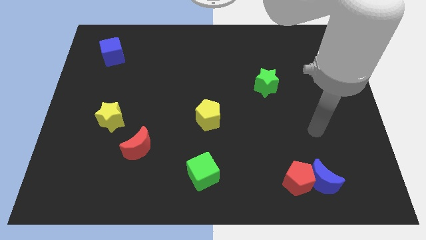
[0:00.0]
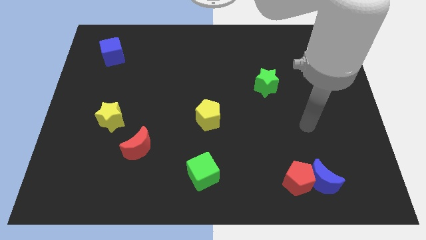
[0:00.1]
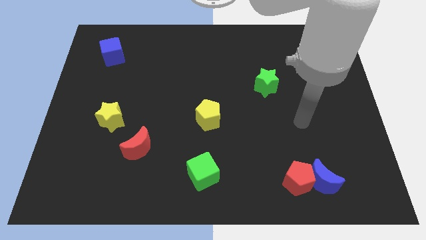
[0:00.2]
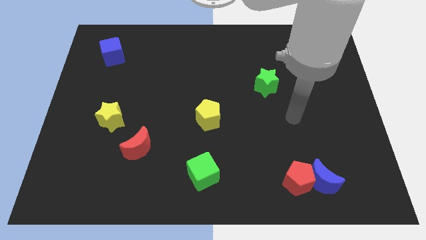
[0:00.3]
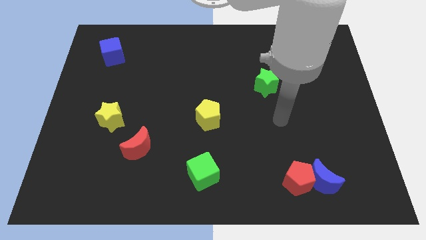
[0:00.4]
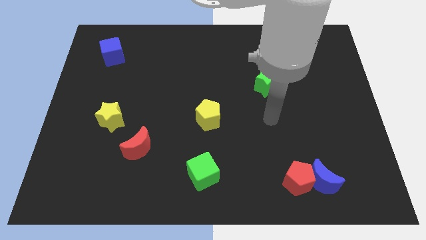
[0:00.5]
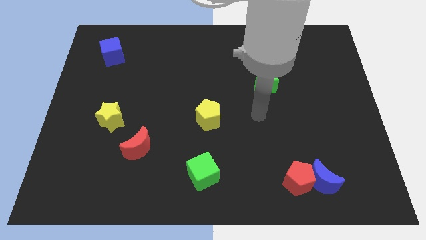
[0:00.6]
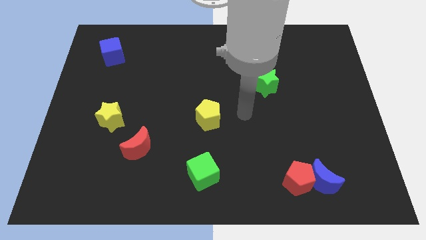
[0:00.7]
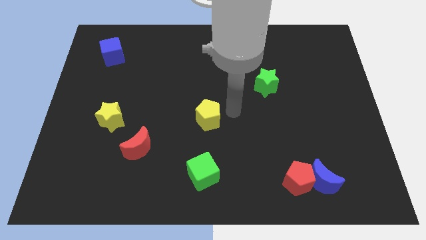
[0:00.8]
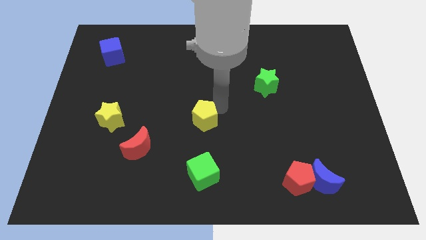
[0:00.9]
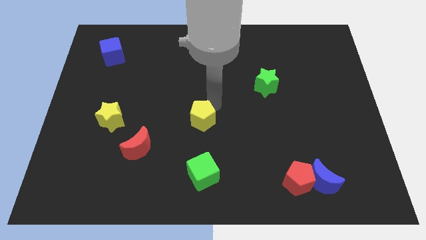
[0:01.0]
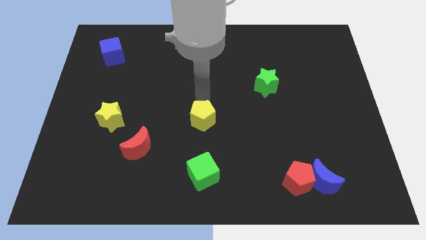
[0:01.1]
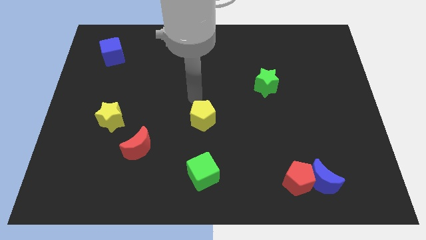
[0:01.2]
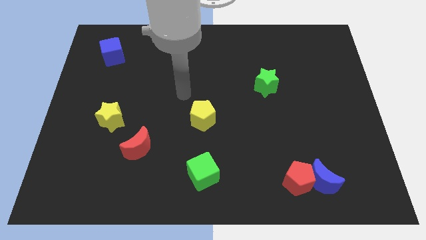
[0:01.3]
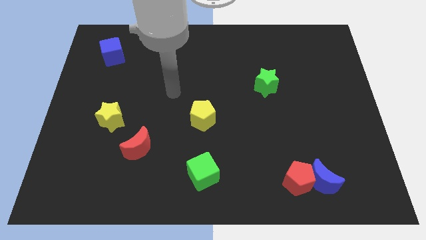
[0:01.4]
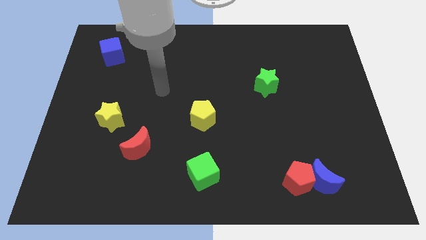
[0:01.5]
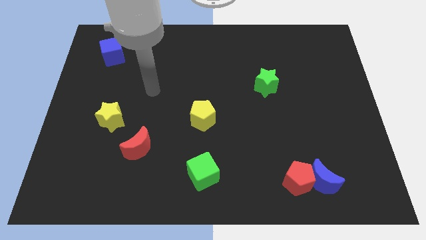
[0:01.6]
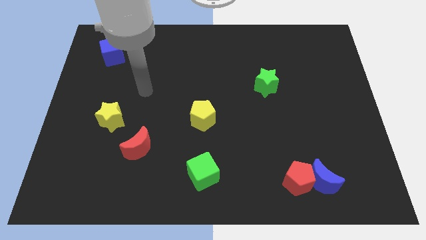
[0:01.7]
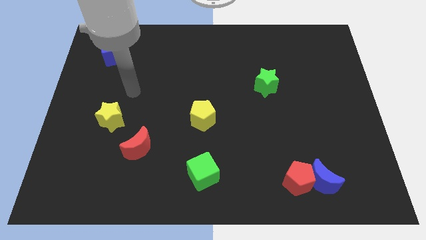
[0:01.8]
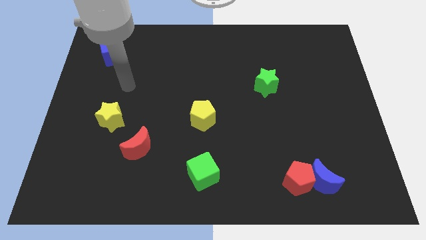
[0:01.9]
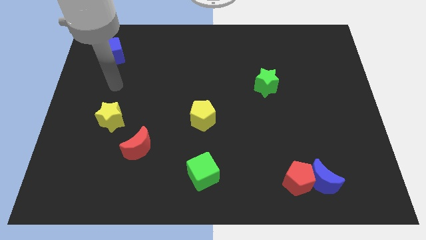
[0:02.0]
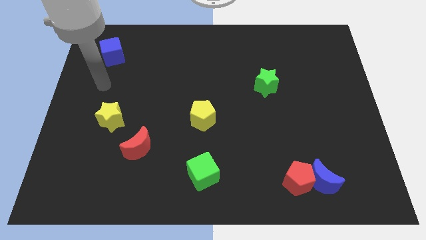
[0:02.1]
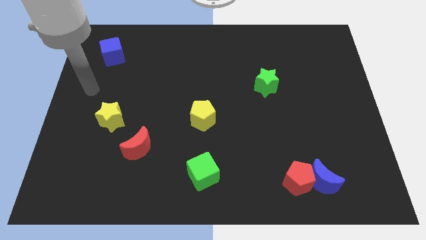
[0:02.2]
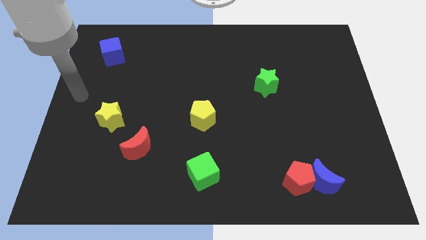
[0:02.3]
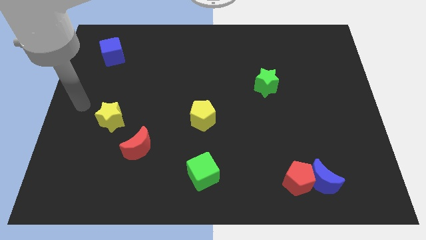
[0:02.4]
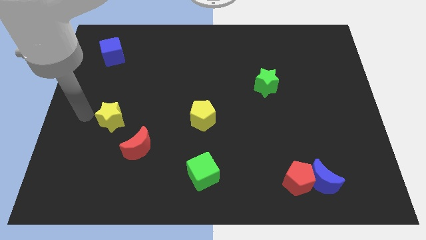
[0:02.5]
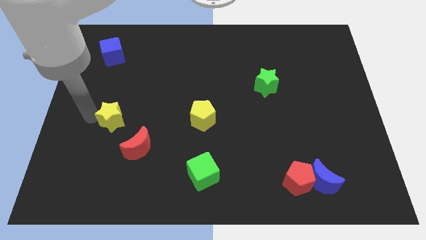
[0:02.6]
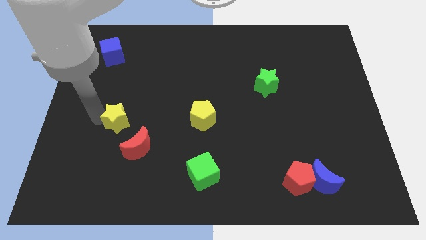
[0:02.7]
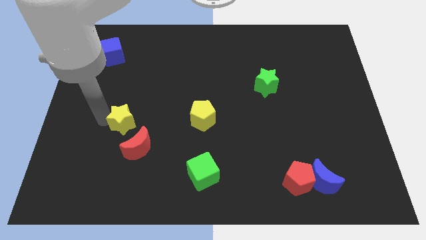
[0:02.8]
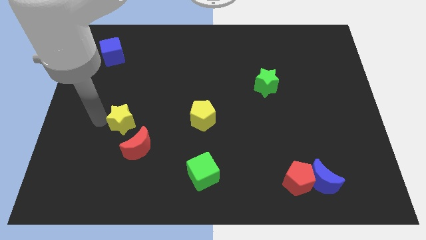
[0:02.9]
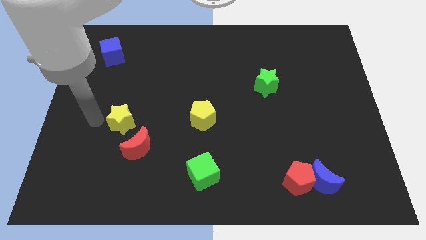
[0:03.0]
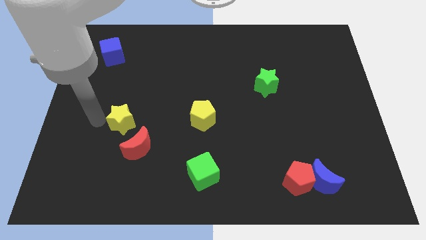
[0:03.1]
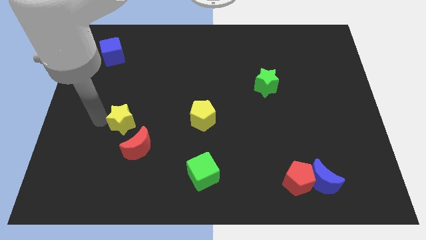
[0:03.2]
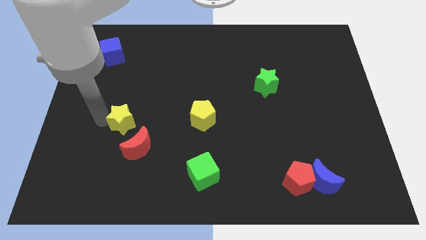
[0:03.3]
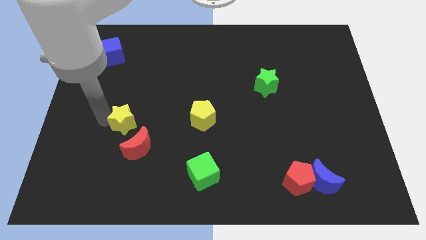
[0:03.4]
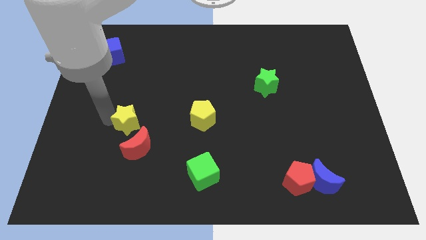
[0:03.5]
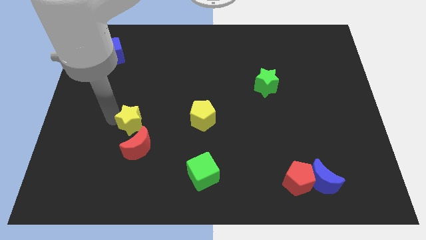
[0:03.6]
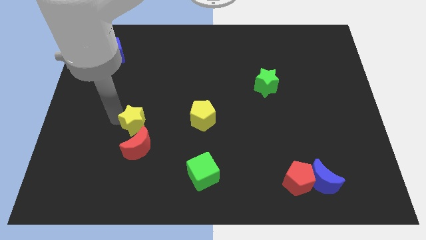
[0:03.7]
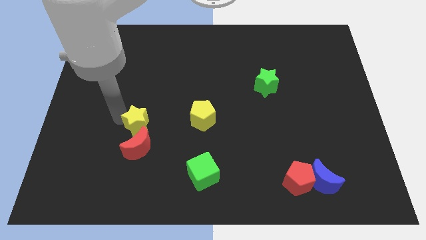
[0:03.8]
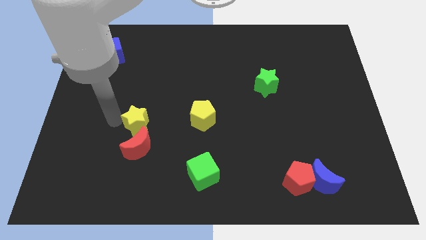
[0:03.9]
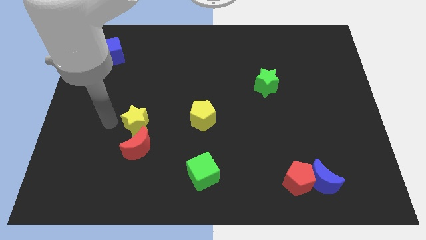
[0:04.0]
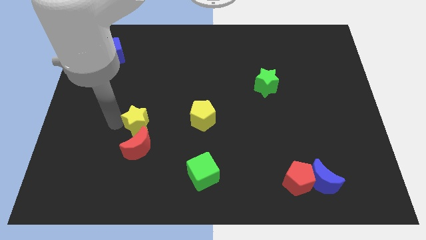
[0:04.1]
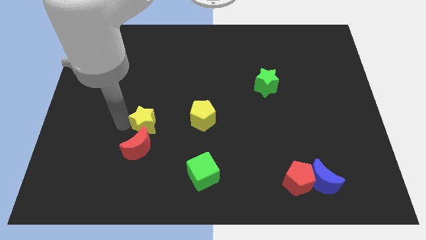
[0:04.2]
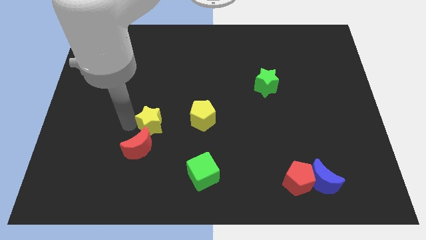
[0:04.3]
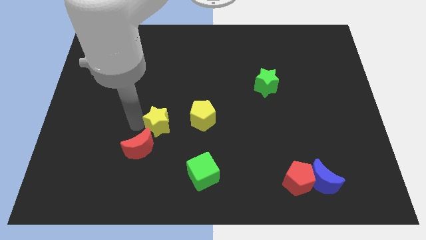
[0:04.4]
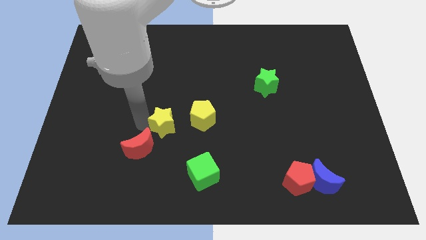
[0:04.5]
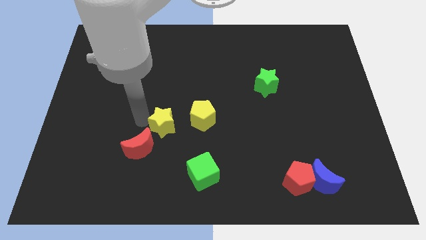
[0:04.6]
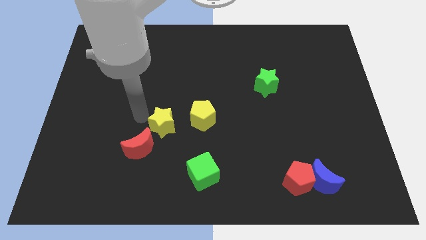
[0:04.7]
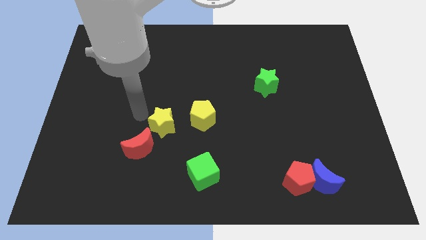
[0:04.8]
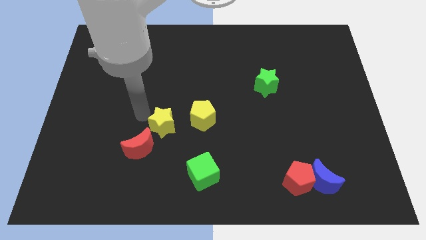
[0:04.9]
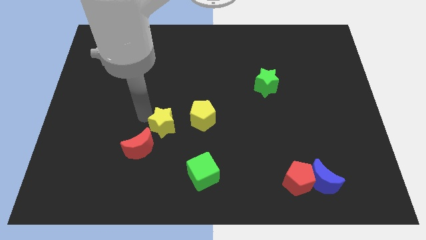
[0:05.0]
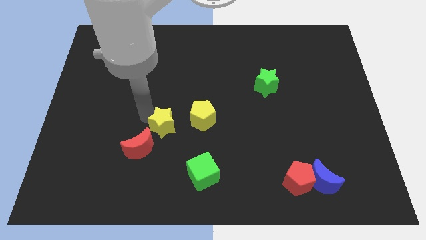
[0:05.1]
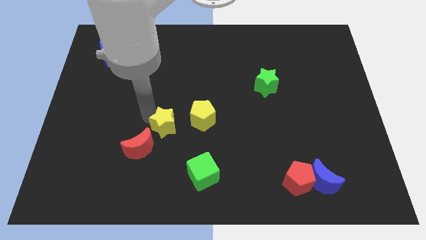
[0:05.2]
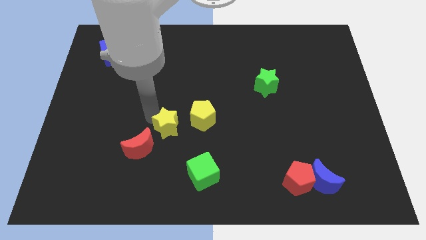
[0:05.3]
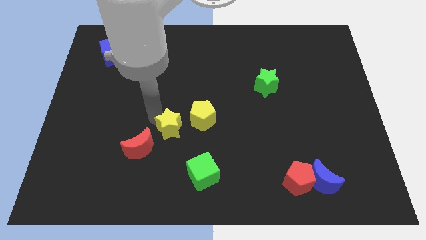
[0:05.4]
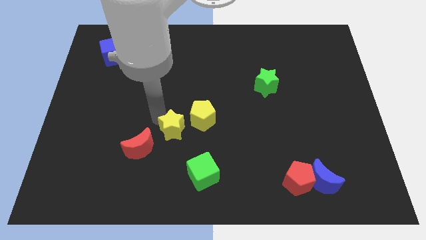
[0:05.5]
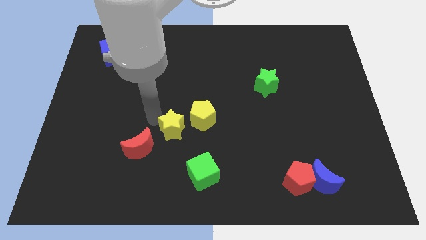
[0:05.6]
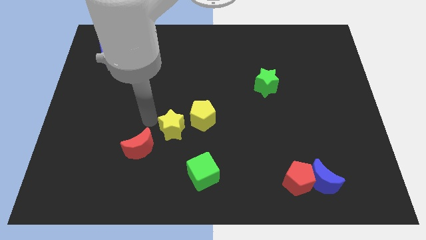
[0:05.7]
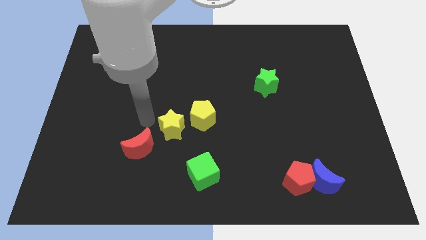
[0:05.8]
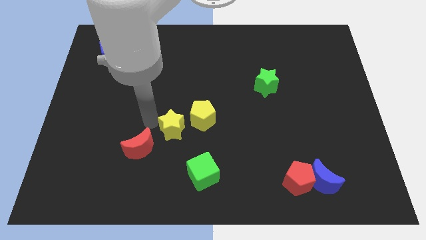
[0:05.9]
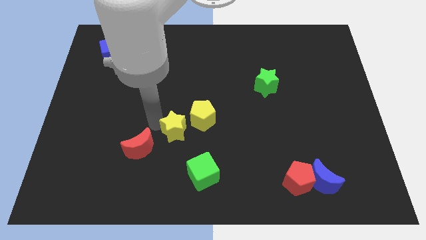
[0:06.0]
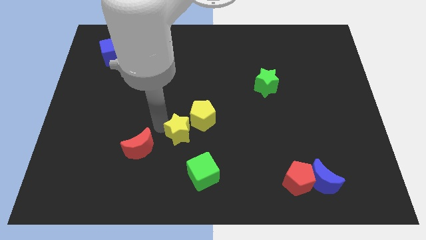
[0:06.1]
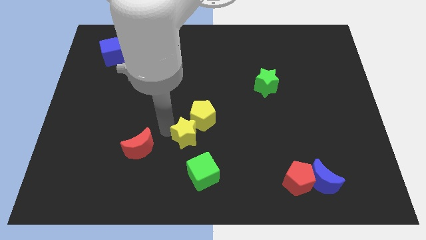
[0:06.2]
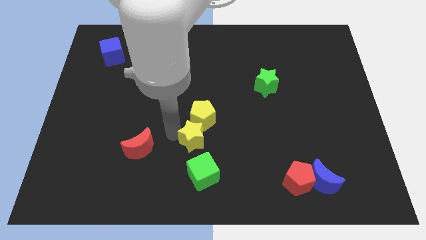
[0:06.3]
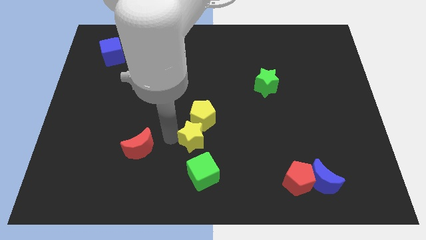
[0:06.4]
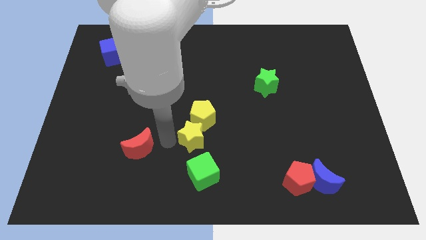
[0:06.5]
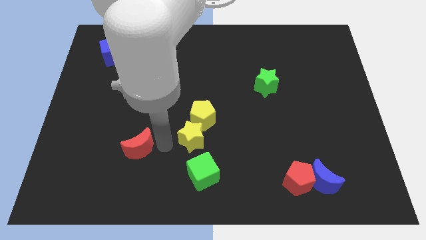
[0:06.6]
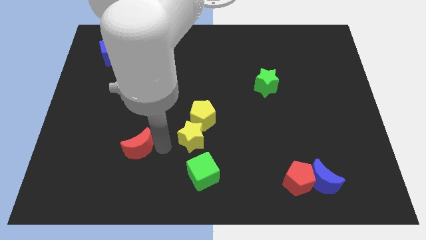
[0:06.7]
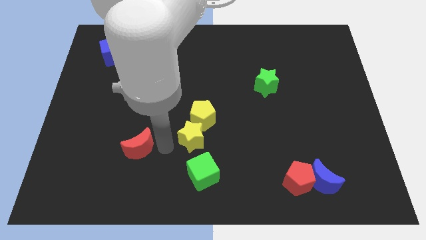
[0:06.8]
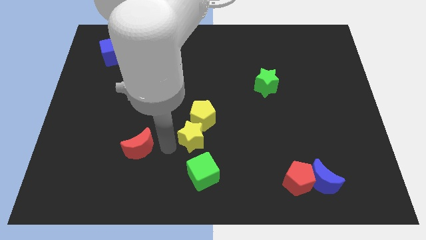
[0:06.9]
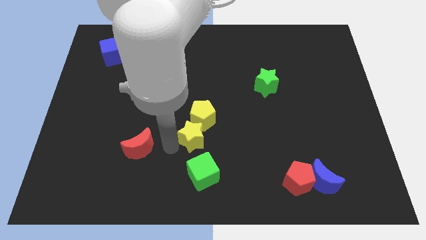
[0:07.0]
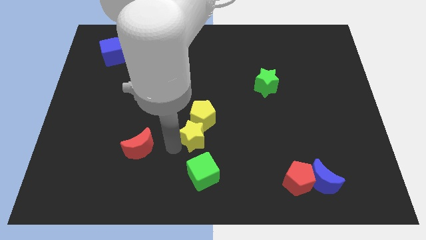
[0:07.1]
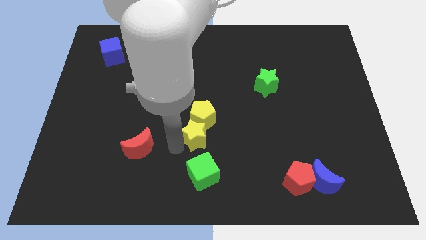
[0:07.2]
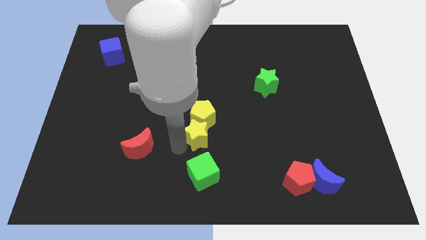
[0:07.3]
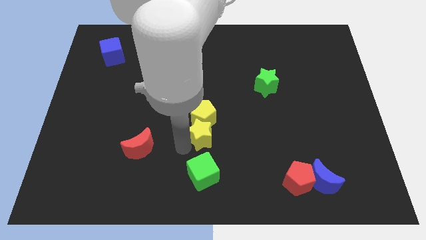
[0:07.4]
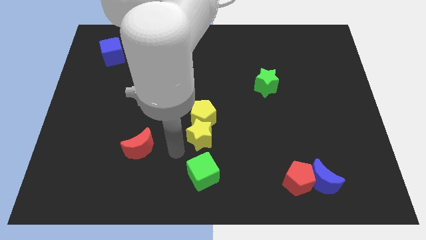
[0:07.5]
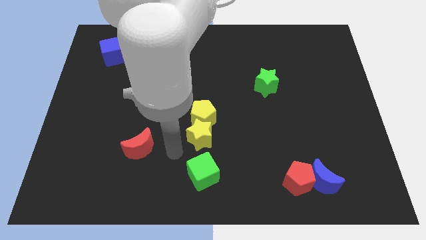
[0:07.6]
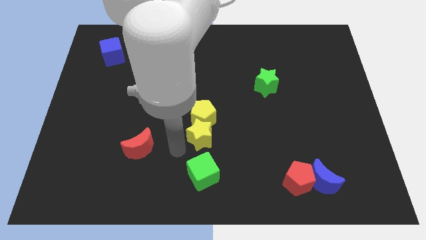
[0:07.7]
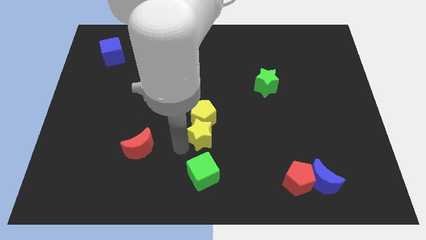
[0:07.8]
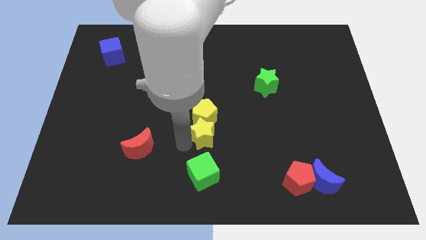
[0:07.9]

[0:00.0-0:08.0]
push the yellow star right
